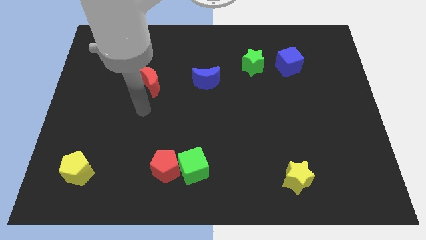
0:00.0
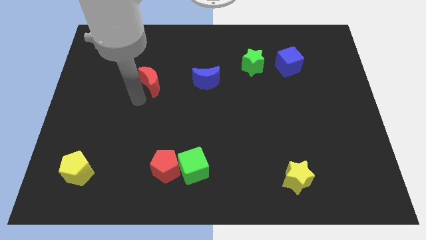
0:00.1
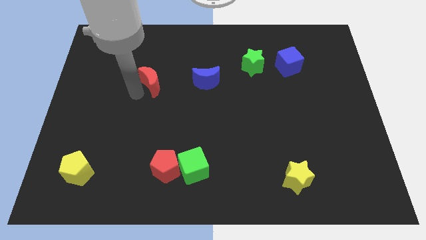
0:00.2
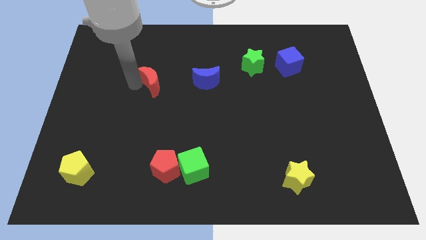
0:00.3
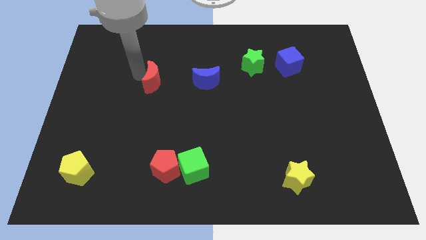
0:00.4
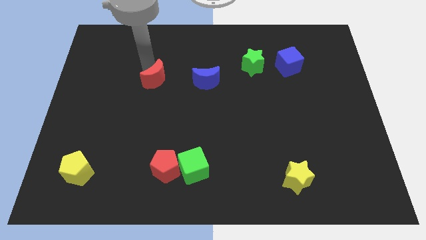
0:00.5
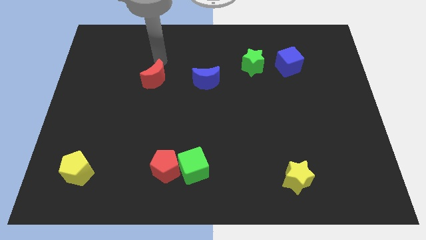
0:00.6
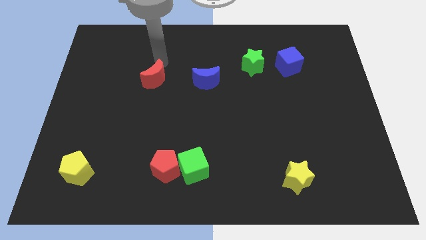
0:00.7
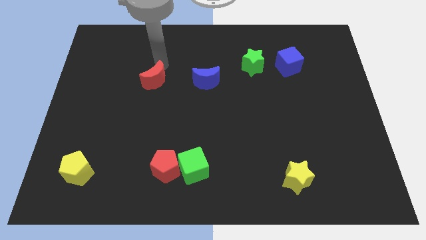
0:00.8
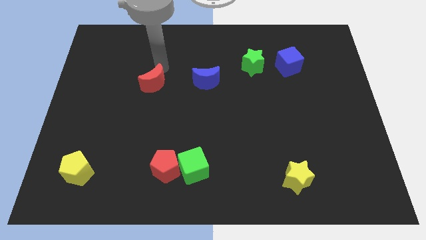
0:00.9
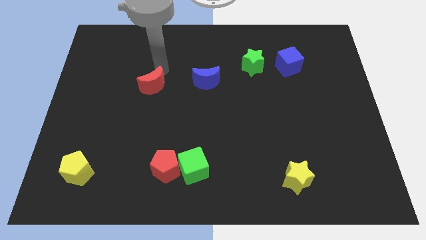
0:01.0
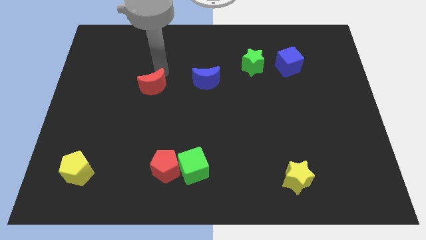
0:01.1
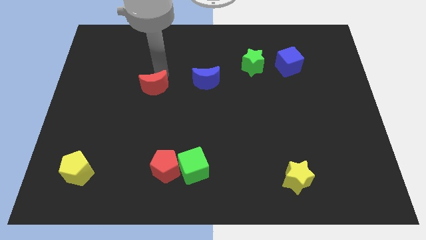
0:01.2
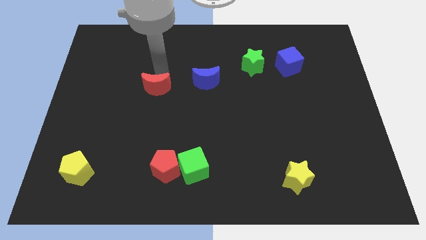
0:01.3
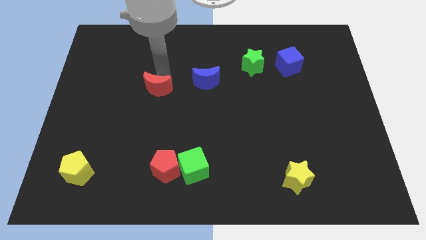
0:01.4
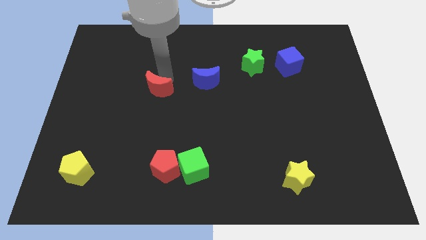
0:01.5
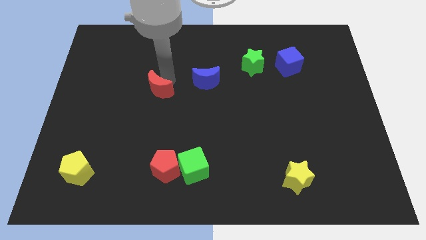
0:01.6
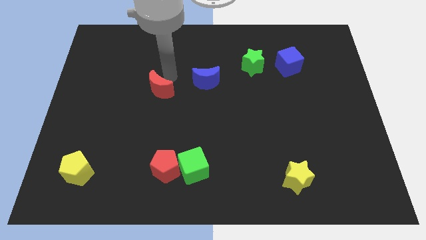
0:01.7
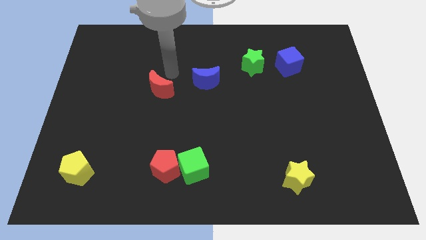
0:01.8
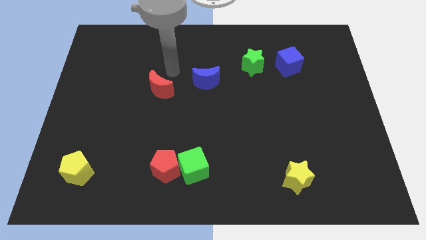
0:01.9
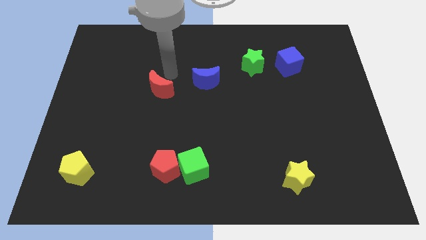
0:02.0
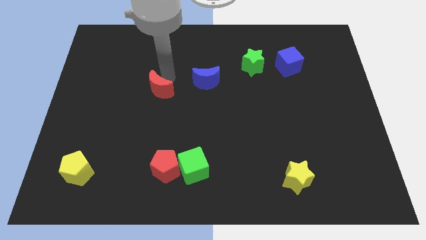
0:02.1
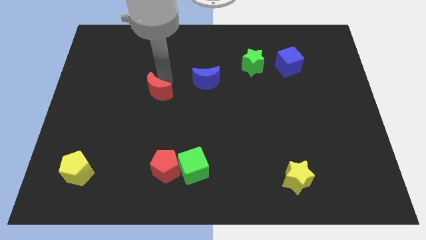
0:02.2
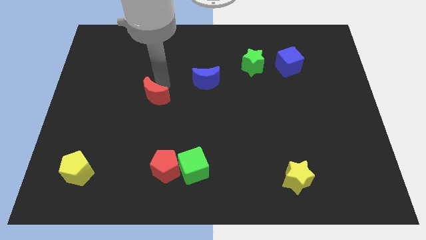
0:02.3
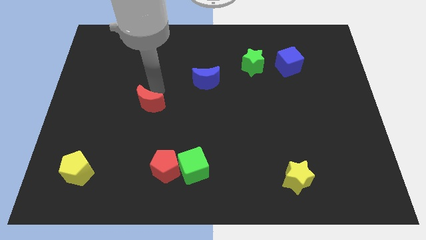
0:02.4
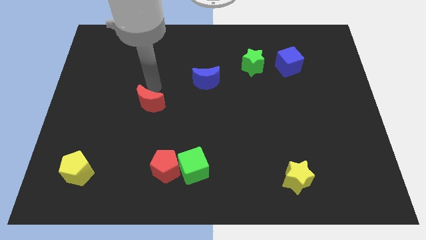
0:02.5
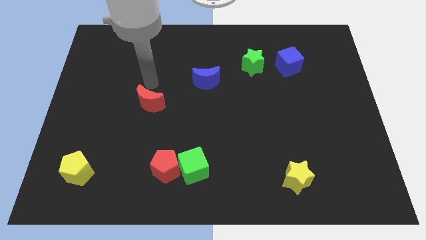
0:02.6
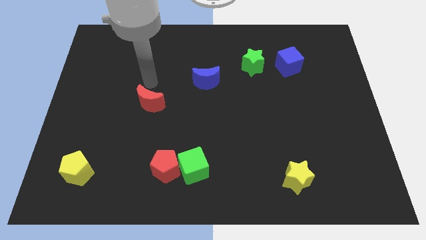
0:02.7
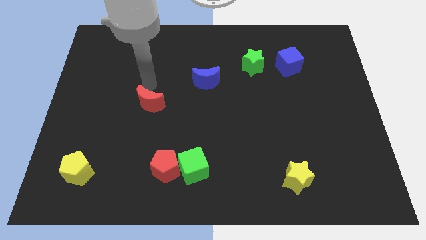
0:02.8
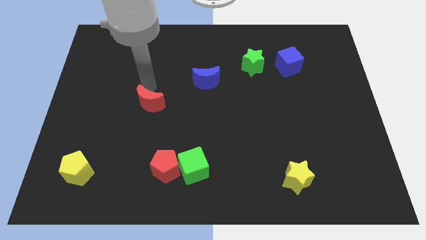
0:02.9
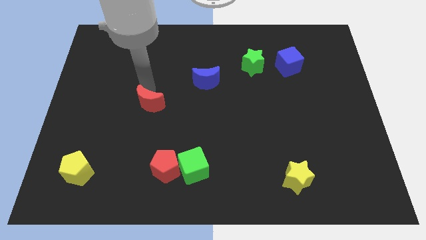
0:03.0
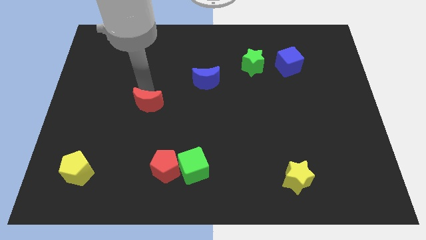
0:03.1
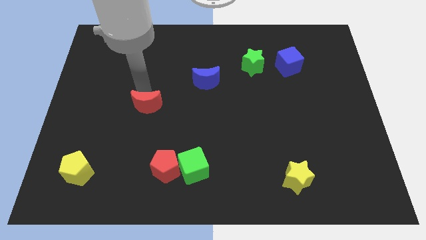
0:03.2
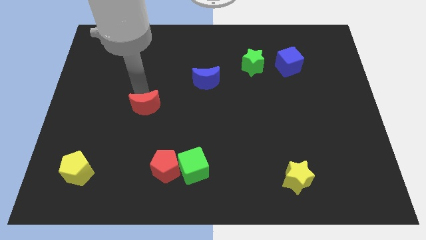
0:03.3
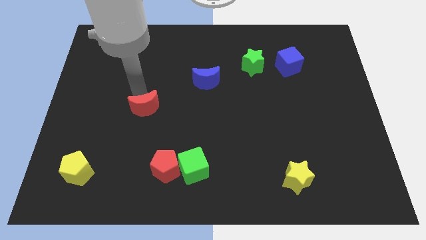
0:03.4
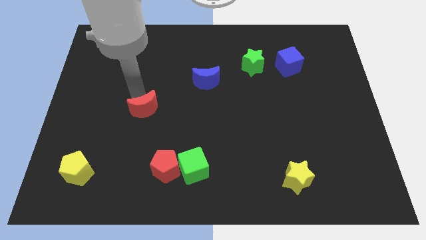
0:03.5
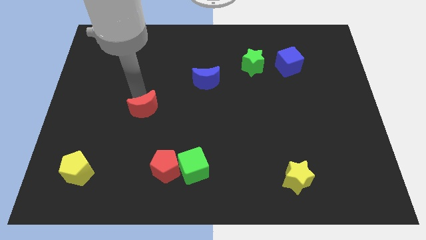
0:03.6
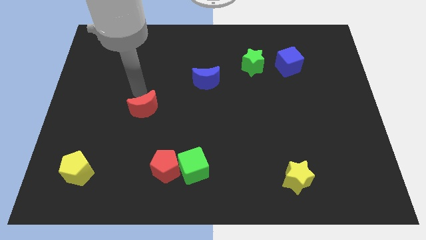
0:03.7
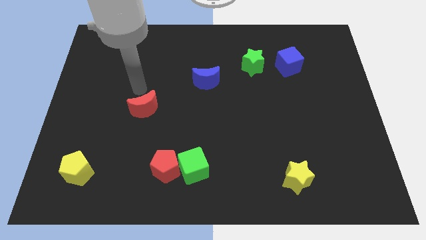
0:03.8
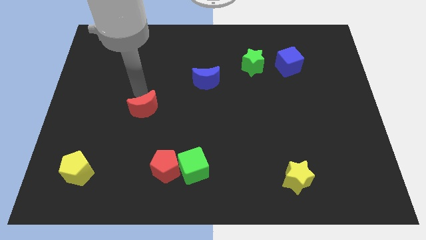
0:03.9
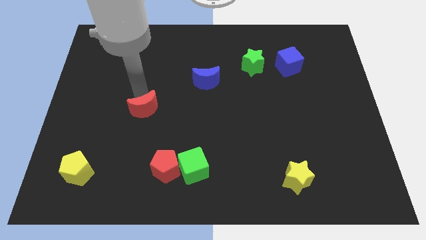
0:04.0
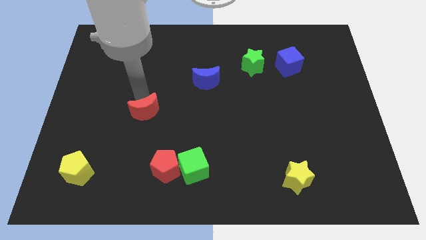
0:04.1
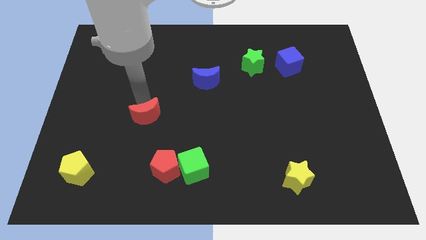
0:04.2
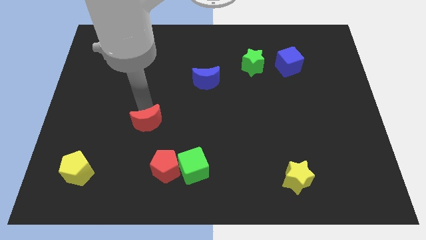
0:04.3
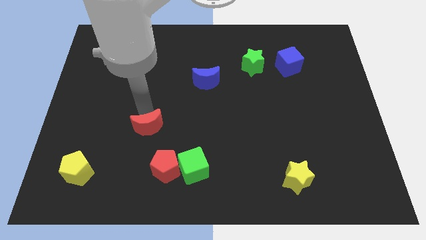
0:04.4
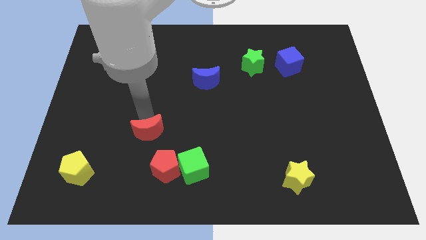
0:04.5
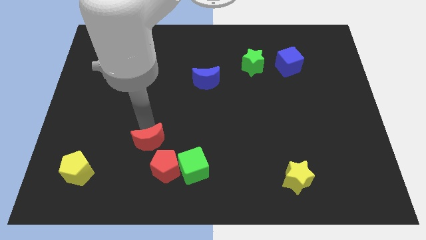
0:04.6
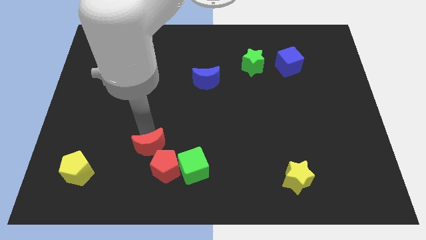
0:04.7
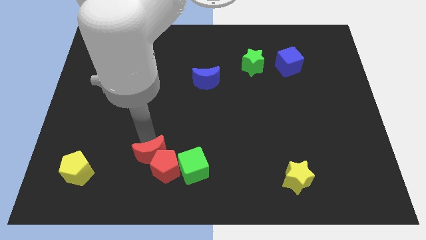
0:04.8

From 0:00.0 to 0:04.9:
push the red moon to the red pentagon

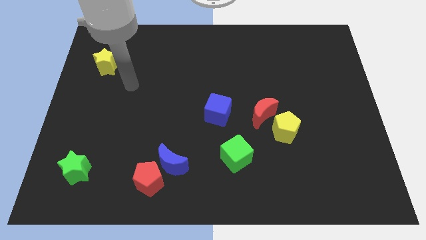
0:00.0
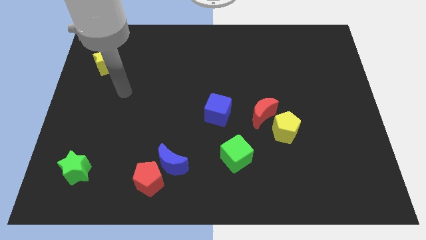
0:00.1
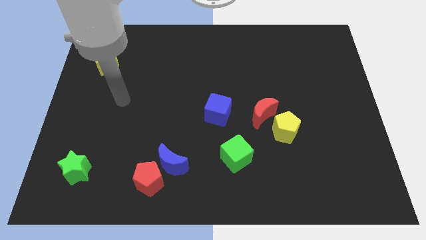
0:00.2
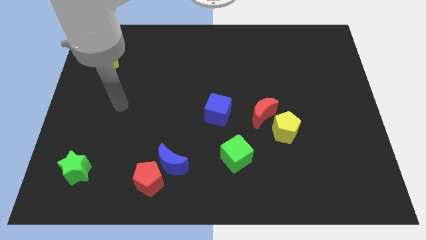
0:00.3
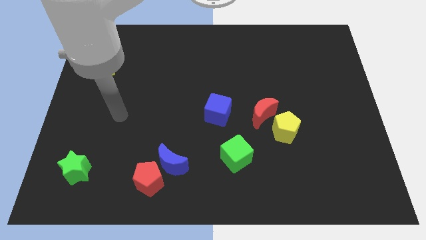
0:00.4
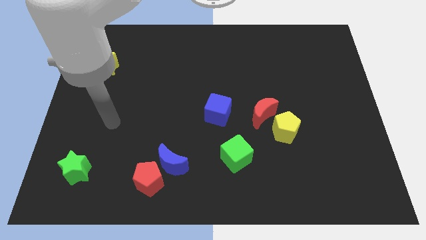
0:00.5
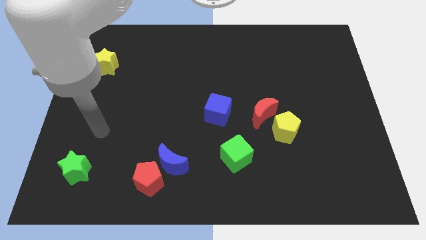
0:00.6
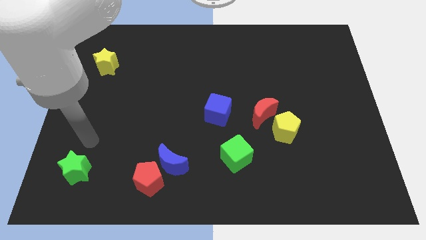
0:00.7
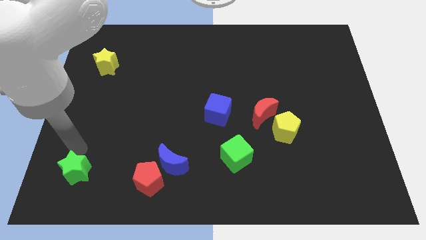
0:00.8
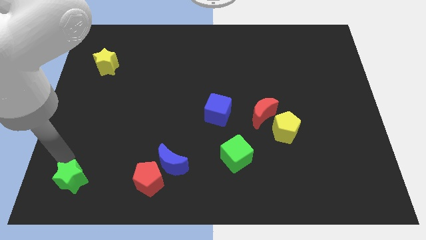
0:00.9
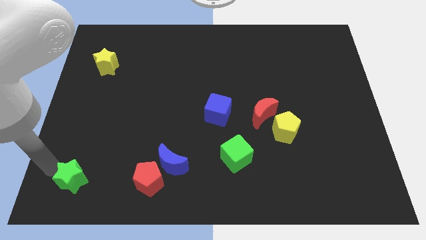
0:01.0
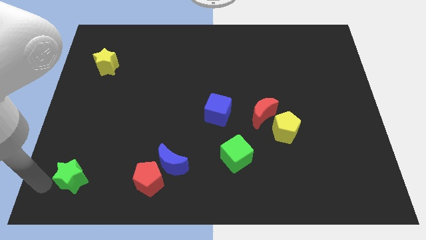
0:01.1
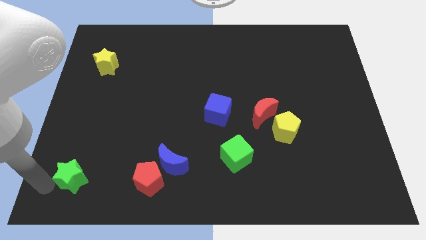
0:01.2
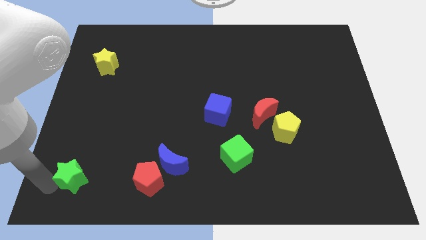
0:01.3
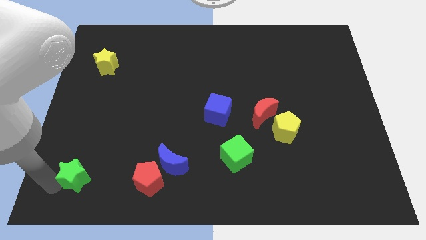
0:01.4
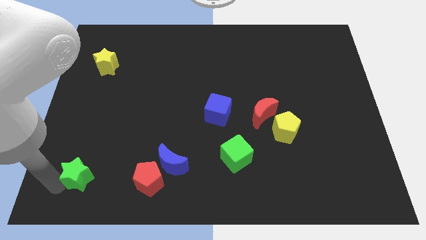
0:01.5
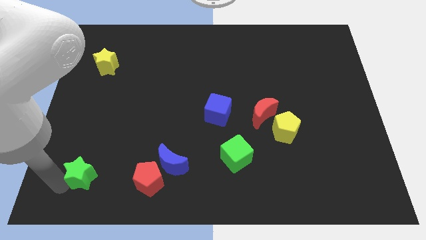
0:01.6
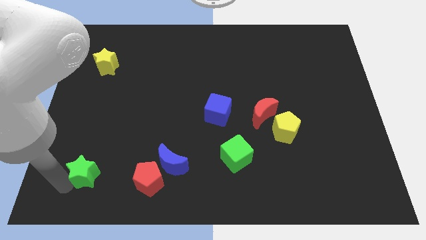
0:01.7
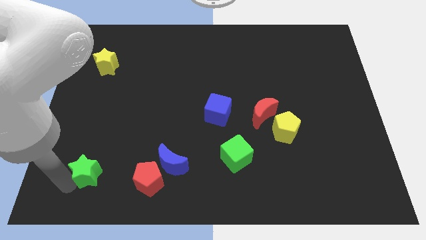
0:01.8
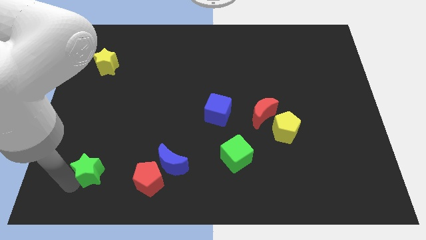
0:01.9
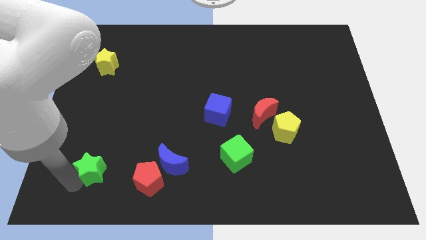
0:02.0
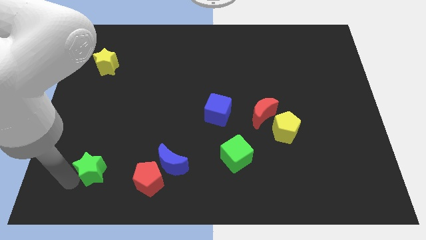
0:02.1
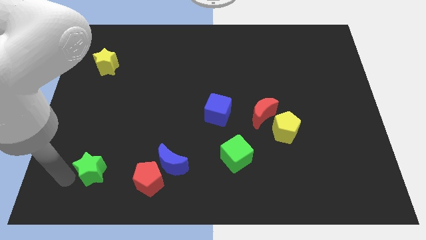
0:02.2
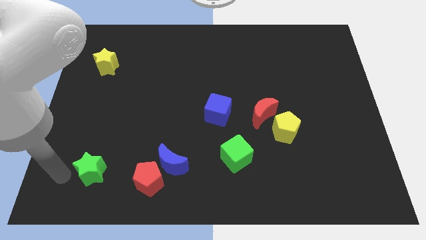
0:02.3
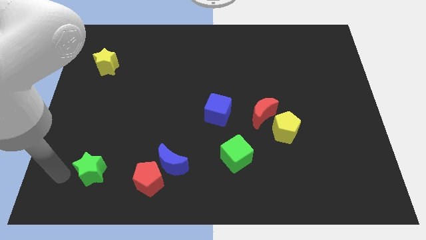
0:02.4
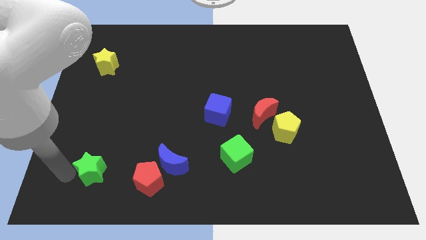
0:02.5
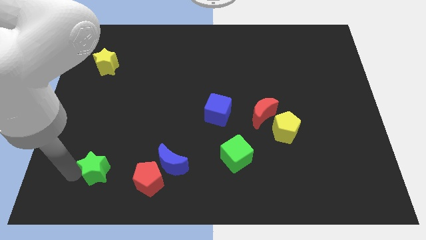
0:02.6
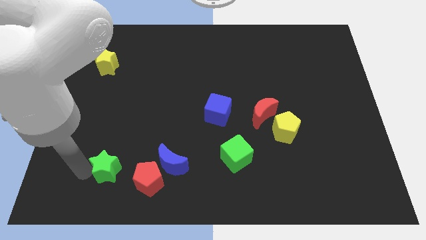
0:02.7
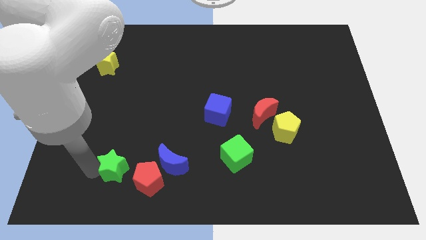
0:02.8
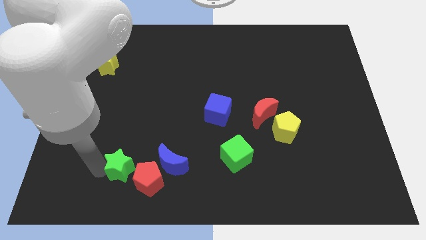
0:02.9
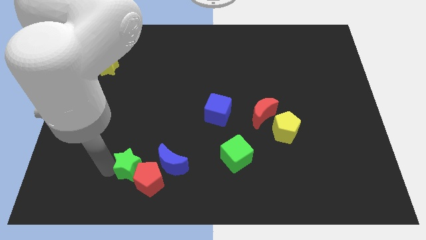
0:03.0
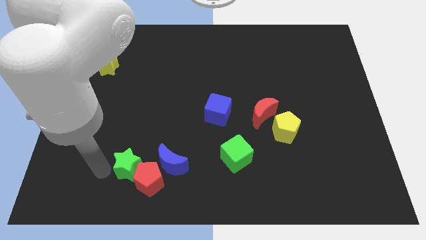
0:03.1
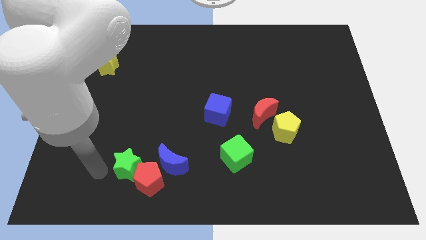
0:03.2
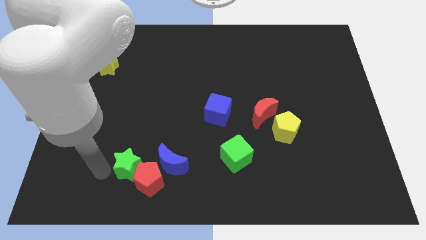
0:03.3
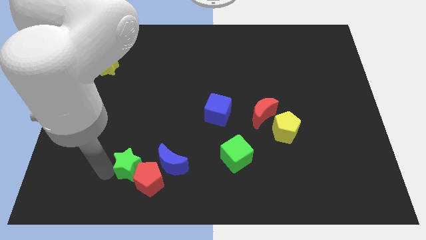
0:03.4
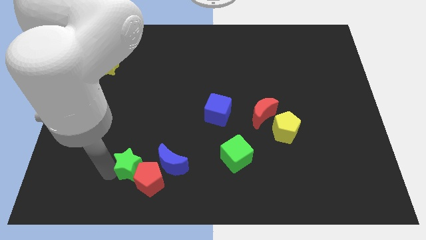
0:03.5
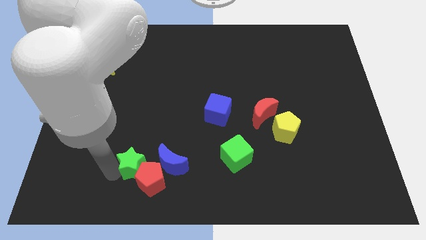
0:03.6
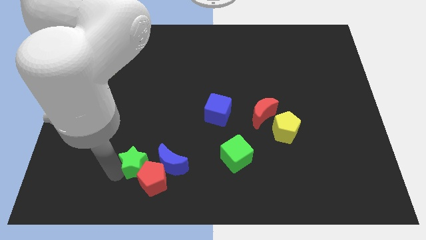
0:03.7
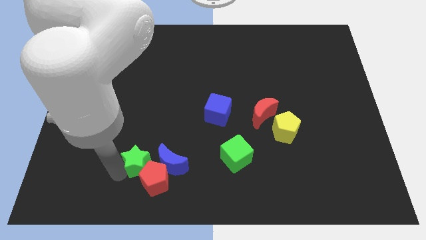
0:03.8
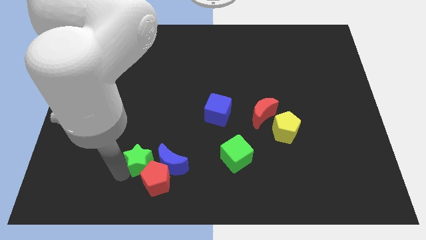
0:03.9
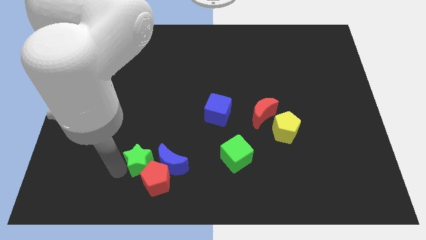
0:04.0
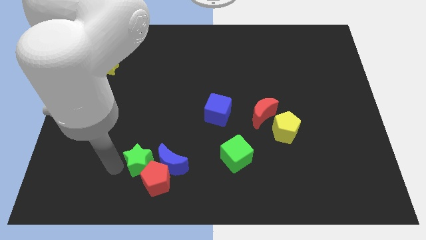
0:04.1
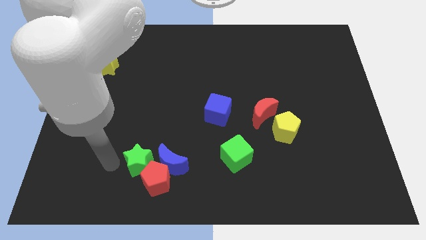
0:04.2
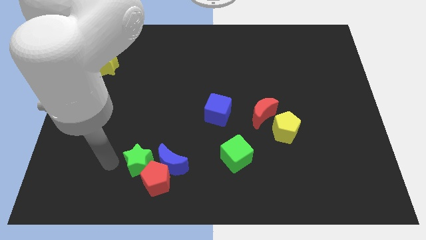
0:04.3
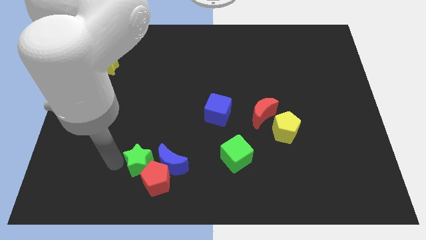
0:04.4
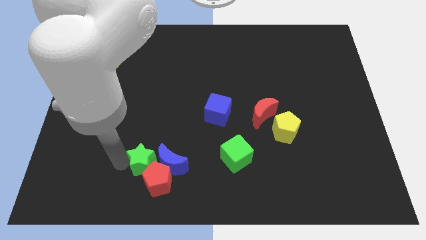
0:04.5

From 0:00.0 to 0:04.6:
put the green star towards the blue moon
